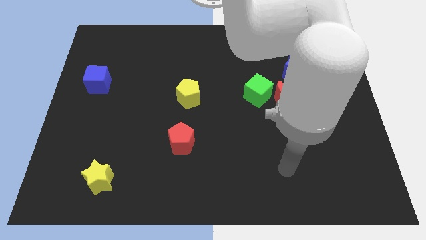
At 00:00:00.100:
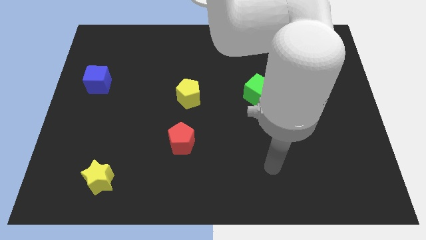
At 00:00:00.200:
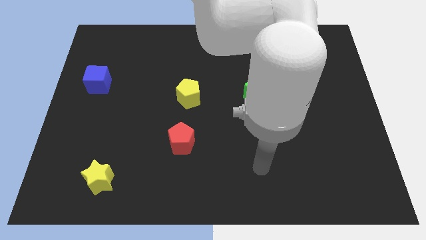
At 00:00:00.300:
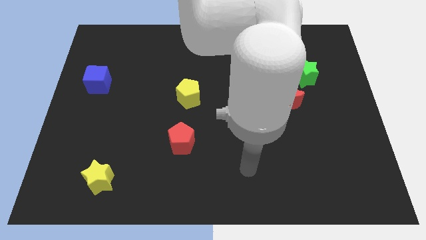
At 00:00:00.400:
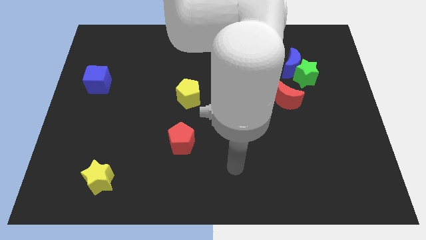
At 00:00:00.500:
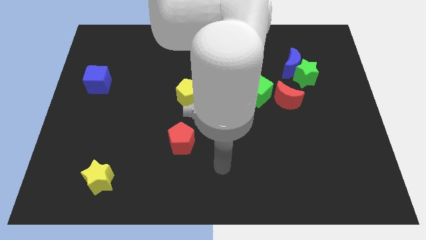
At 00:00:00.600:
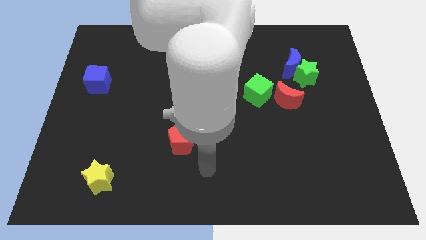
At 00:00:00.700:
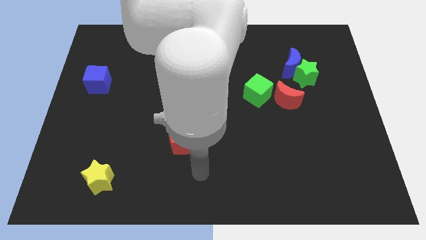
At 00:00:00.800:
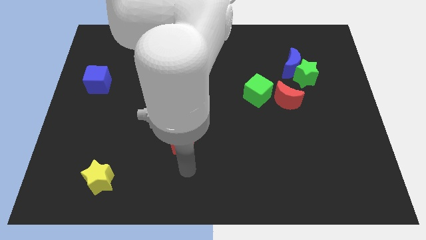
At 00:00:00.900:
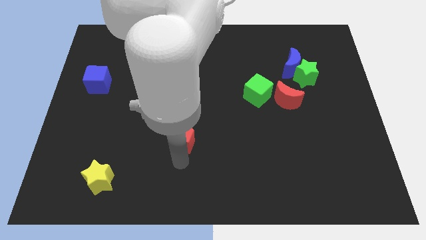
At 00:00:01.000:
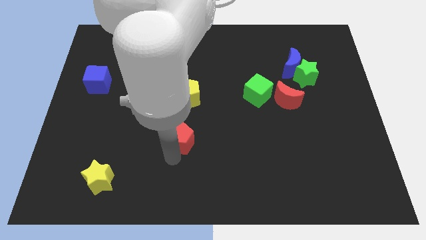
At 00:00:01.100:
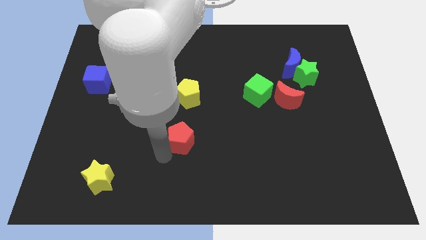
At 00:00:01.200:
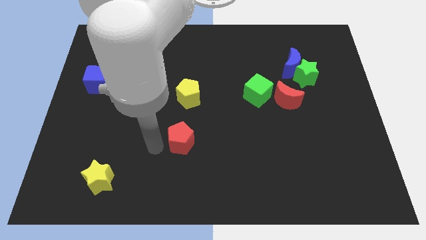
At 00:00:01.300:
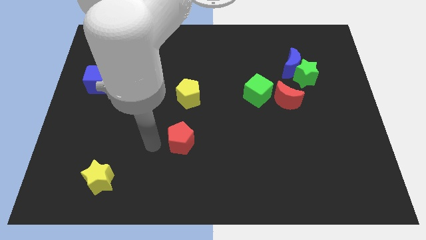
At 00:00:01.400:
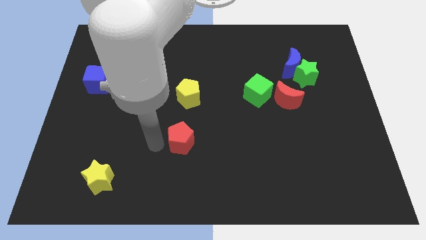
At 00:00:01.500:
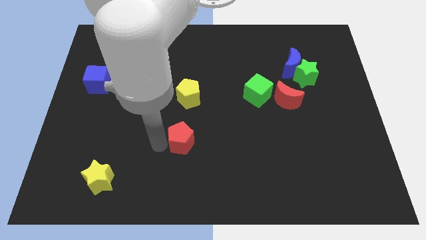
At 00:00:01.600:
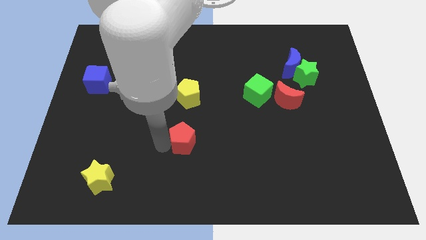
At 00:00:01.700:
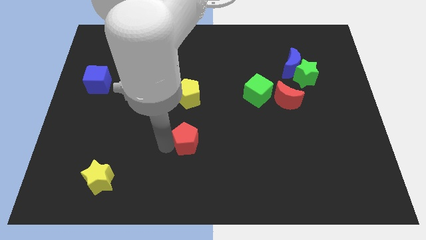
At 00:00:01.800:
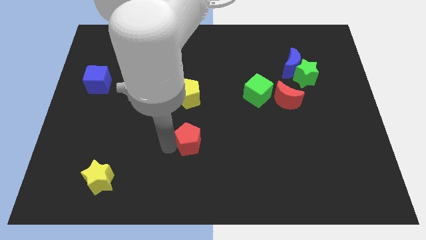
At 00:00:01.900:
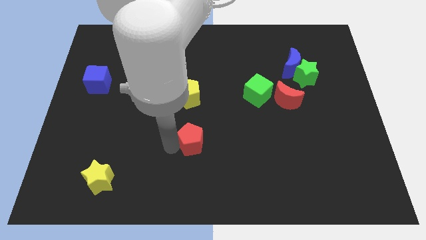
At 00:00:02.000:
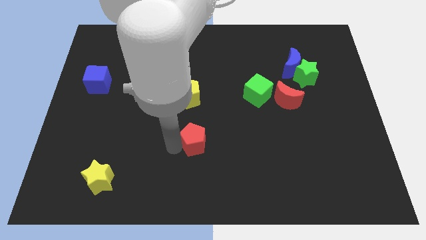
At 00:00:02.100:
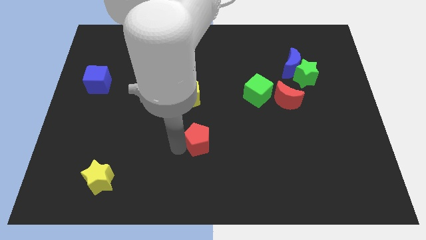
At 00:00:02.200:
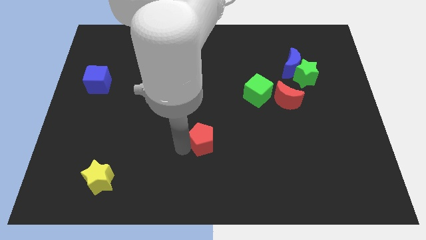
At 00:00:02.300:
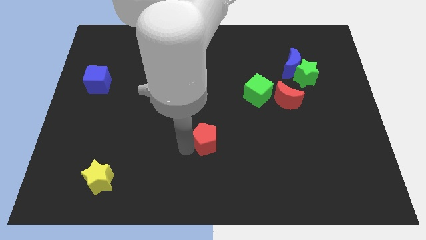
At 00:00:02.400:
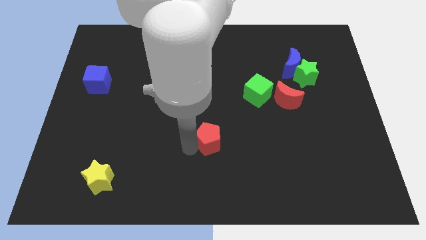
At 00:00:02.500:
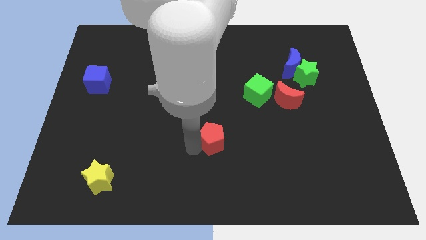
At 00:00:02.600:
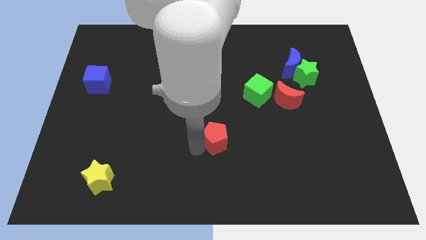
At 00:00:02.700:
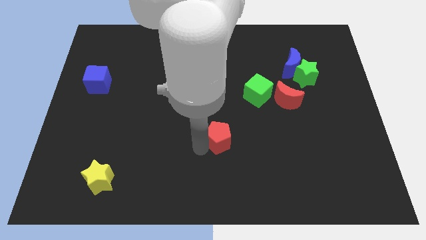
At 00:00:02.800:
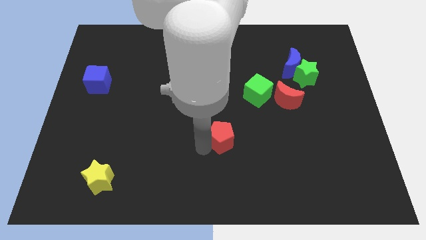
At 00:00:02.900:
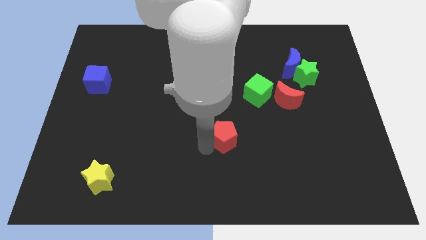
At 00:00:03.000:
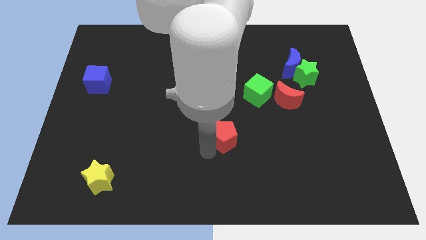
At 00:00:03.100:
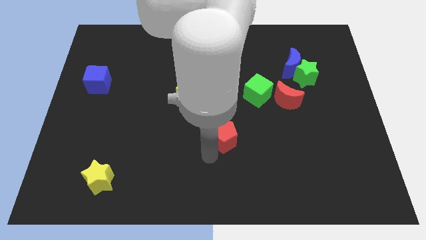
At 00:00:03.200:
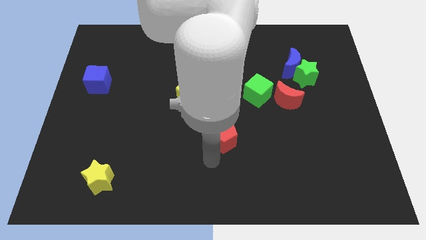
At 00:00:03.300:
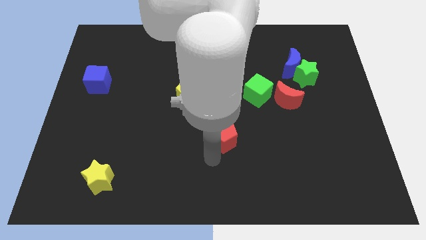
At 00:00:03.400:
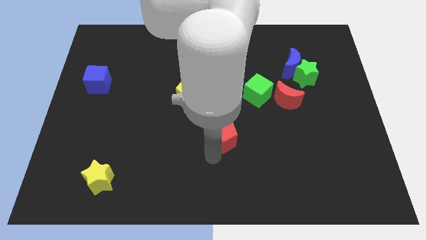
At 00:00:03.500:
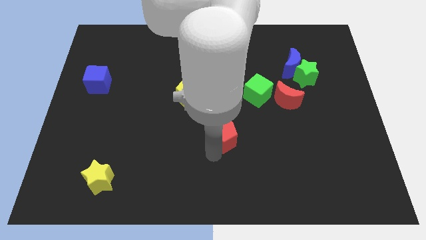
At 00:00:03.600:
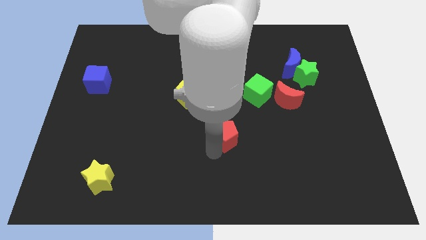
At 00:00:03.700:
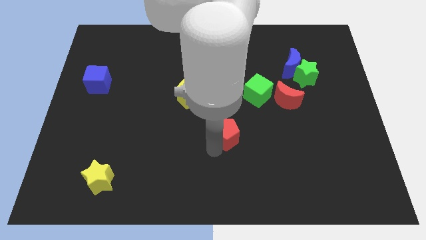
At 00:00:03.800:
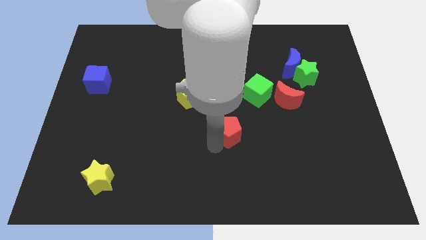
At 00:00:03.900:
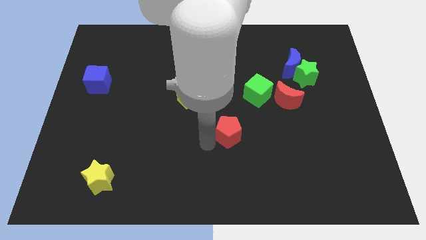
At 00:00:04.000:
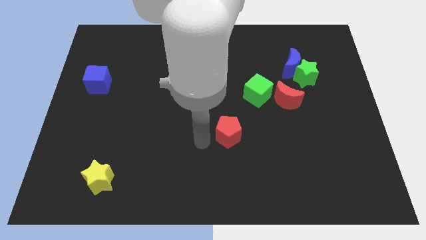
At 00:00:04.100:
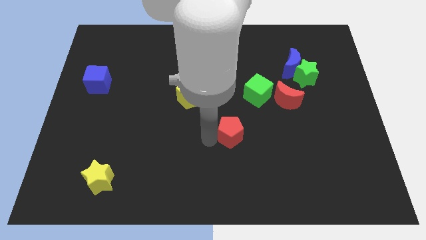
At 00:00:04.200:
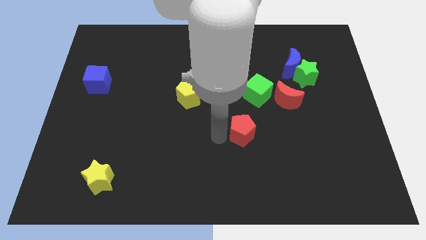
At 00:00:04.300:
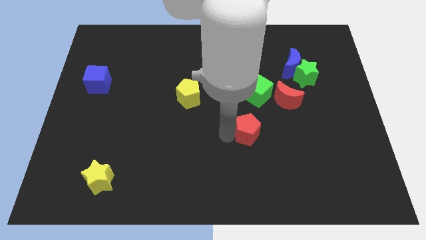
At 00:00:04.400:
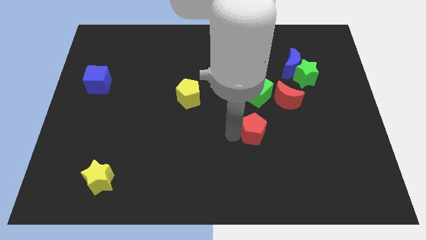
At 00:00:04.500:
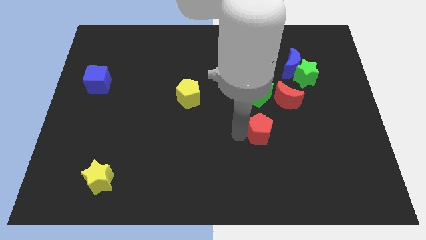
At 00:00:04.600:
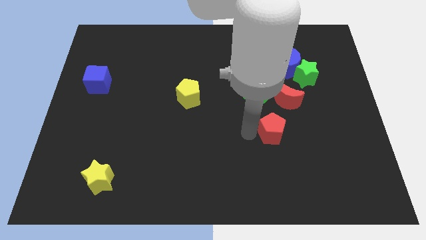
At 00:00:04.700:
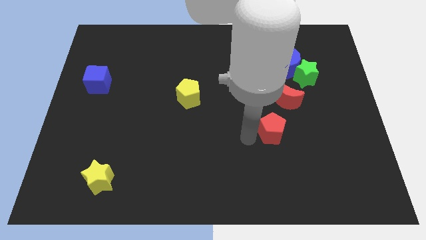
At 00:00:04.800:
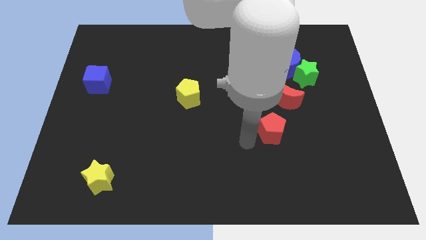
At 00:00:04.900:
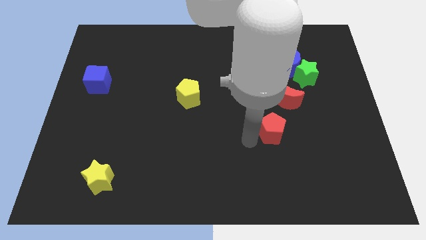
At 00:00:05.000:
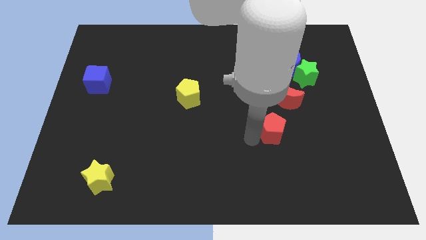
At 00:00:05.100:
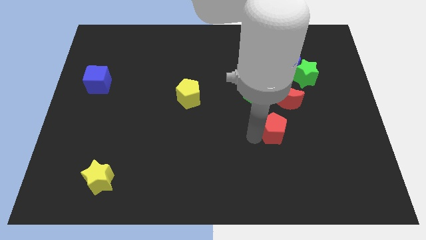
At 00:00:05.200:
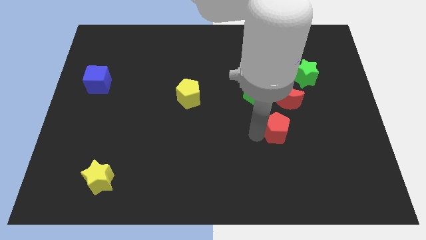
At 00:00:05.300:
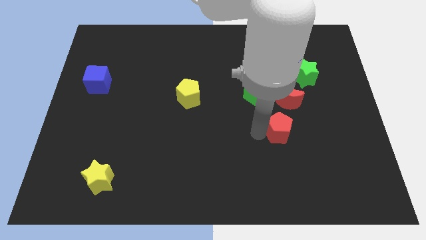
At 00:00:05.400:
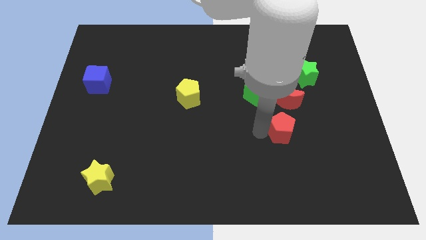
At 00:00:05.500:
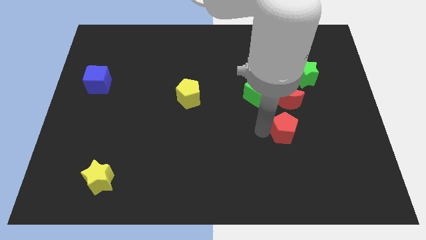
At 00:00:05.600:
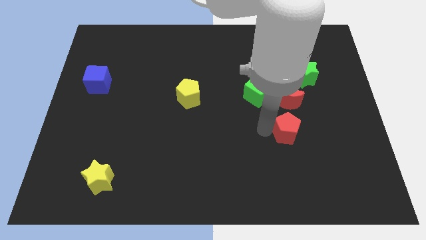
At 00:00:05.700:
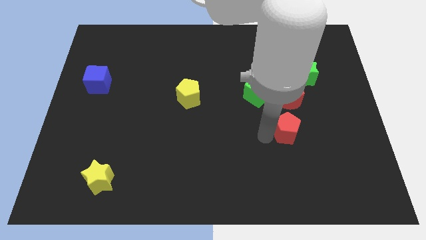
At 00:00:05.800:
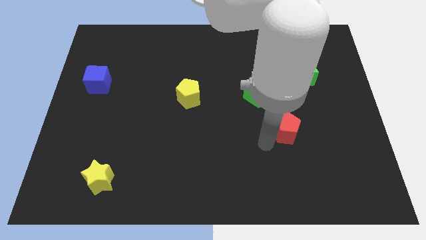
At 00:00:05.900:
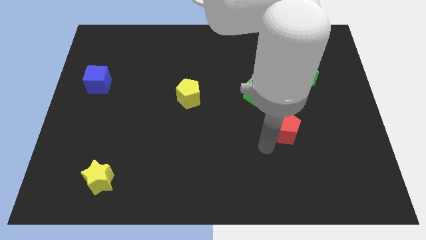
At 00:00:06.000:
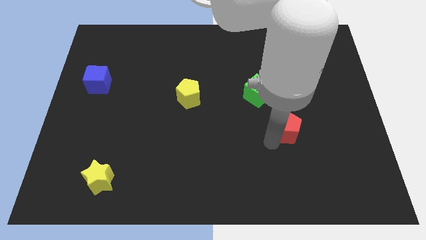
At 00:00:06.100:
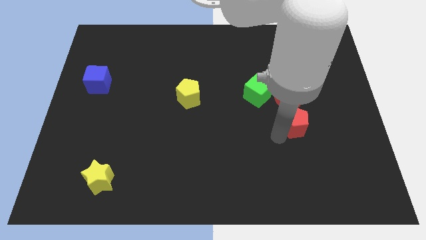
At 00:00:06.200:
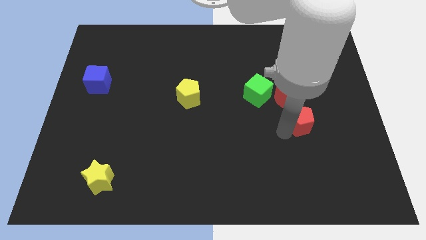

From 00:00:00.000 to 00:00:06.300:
push the red pentagon below the green star

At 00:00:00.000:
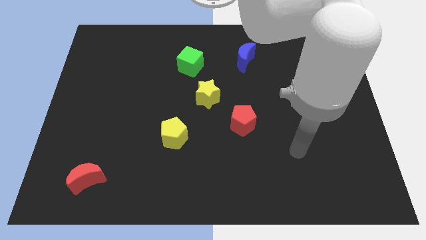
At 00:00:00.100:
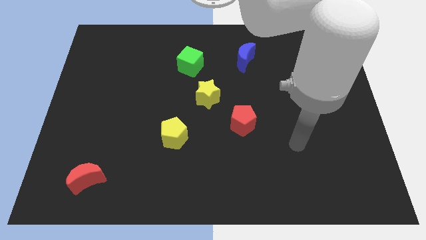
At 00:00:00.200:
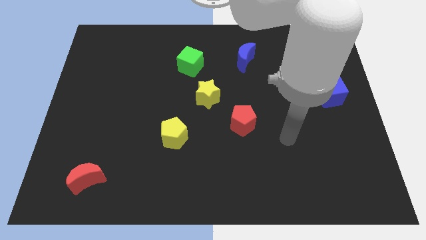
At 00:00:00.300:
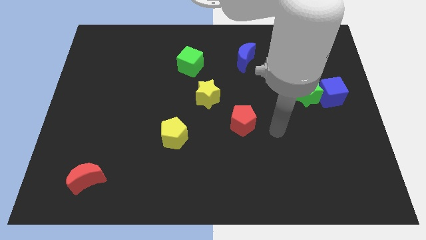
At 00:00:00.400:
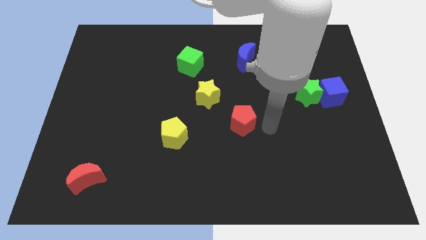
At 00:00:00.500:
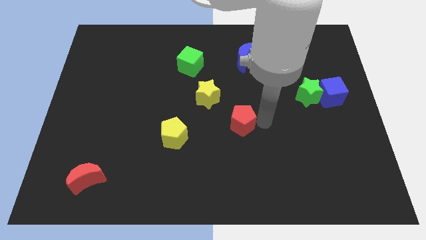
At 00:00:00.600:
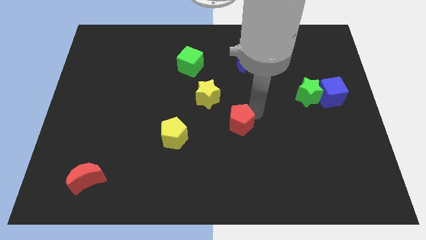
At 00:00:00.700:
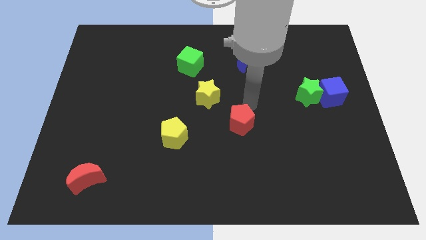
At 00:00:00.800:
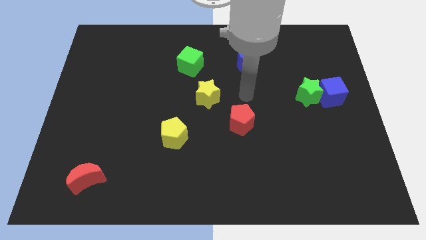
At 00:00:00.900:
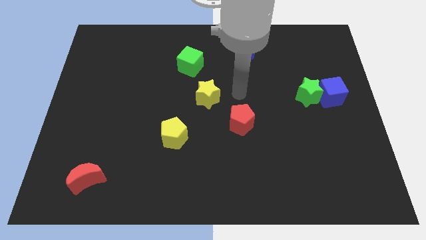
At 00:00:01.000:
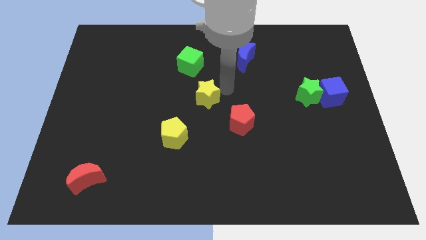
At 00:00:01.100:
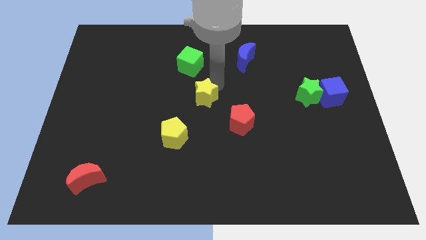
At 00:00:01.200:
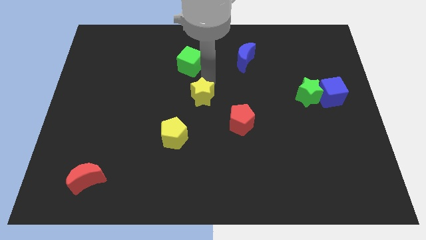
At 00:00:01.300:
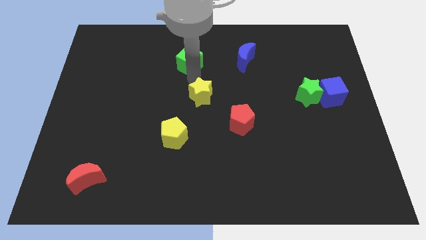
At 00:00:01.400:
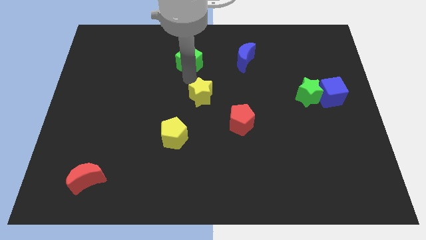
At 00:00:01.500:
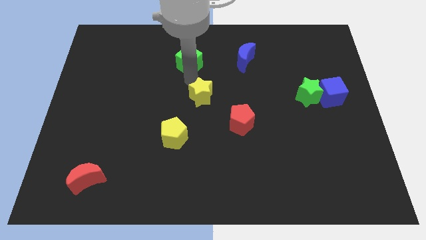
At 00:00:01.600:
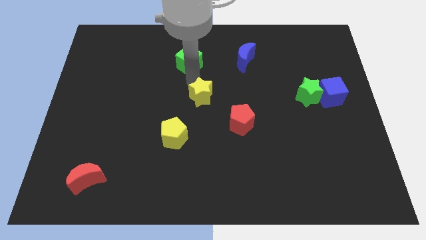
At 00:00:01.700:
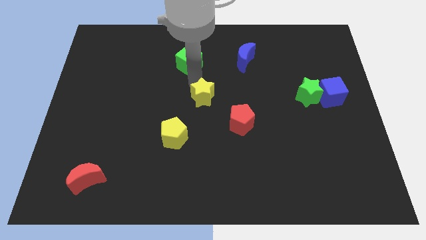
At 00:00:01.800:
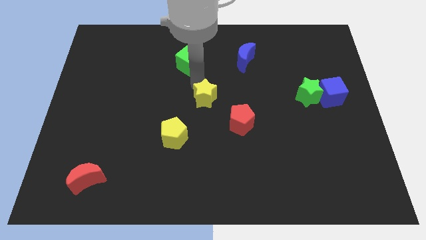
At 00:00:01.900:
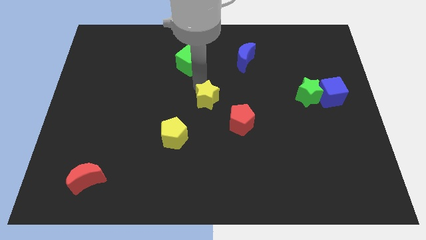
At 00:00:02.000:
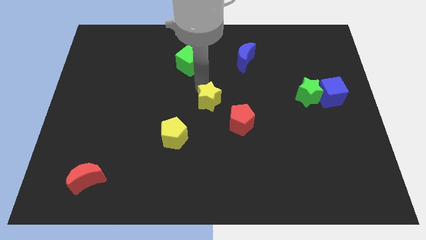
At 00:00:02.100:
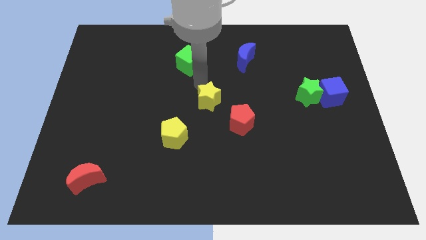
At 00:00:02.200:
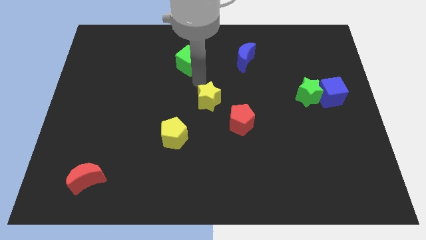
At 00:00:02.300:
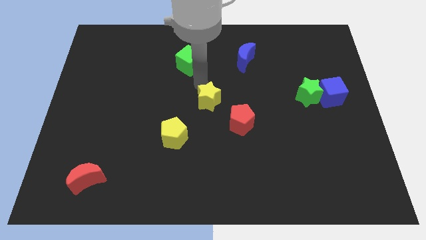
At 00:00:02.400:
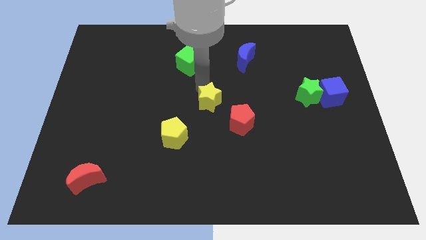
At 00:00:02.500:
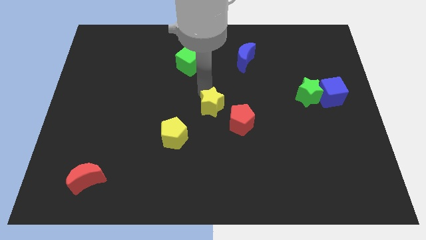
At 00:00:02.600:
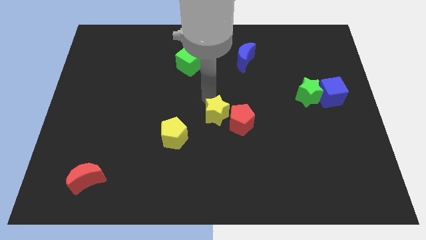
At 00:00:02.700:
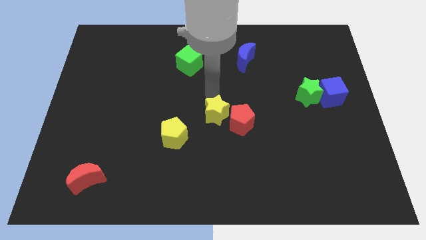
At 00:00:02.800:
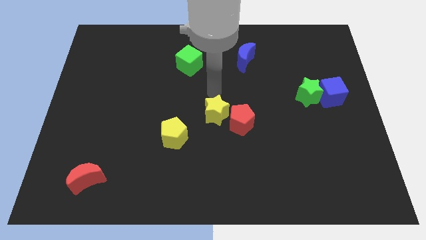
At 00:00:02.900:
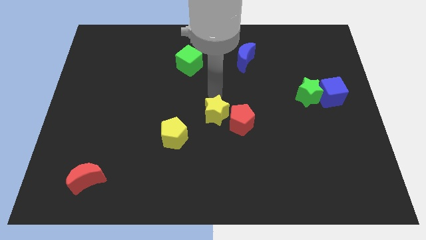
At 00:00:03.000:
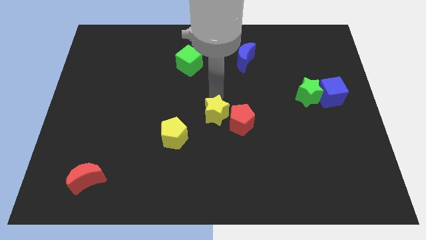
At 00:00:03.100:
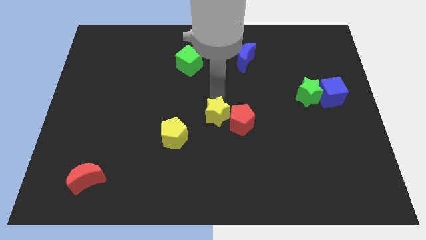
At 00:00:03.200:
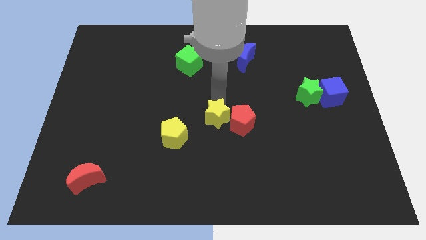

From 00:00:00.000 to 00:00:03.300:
put the yellow star to the bottom left side of the red pentagon
